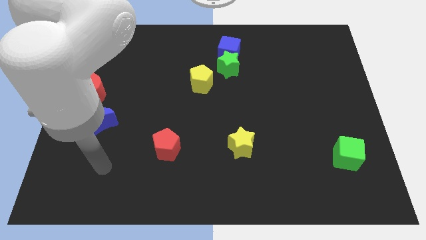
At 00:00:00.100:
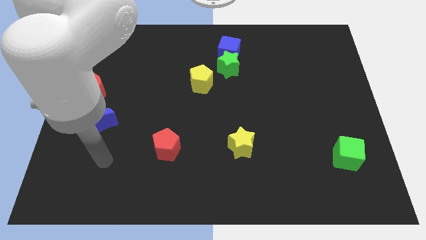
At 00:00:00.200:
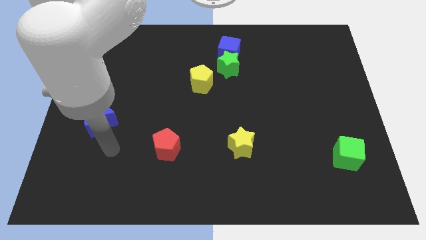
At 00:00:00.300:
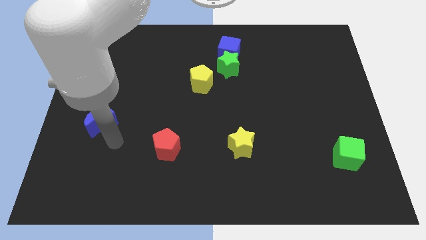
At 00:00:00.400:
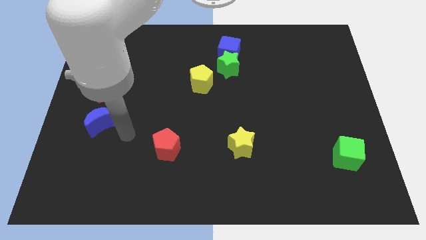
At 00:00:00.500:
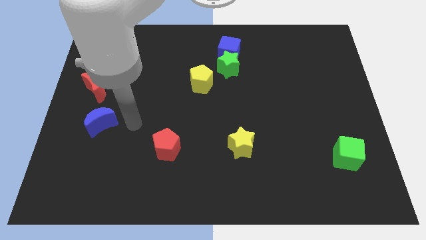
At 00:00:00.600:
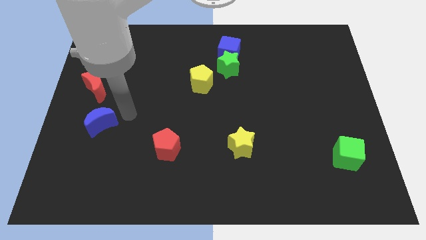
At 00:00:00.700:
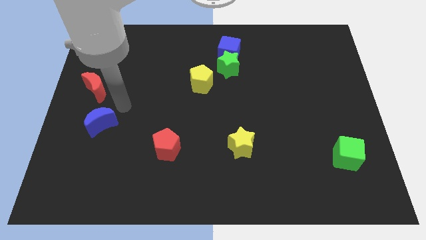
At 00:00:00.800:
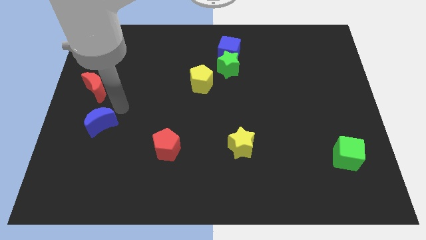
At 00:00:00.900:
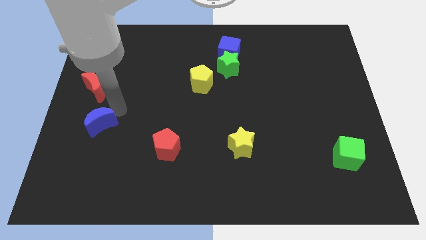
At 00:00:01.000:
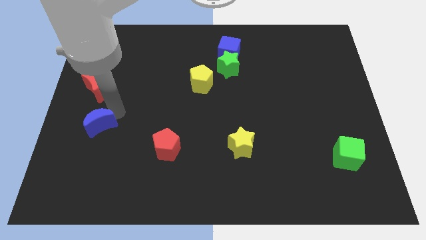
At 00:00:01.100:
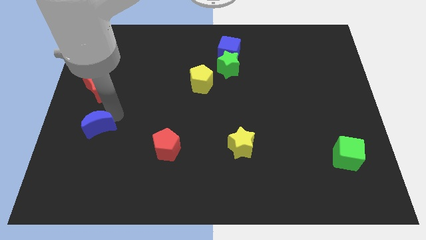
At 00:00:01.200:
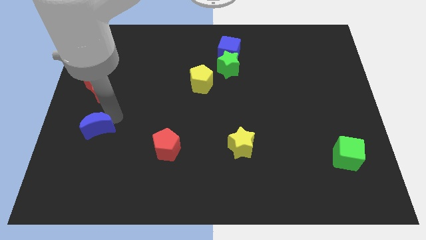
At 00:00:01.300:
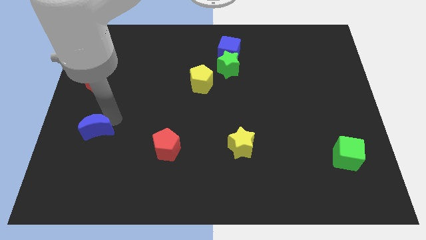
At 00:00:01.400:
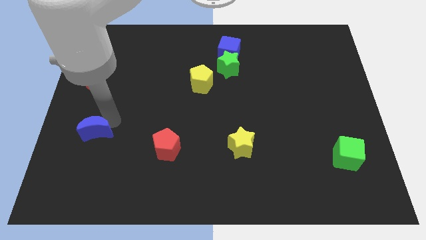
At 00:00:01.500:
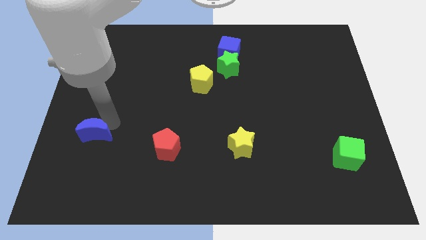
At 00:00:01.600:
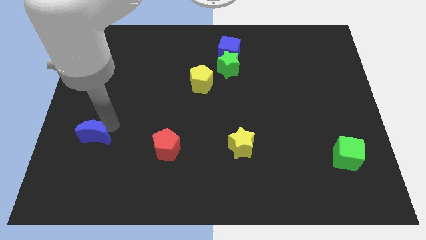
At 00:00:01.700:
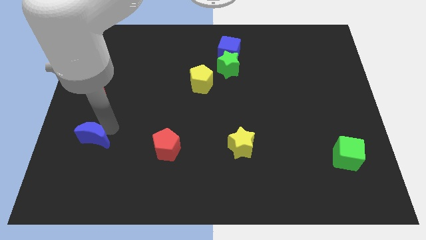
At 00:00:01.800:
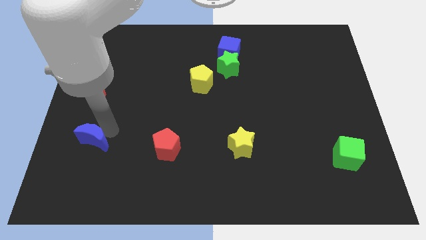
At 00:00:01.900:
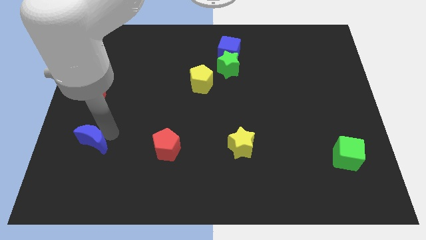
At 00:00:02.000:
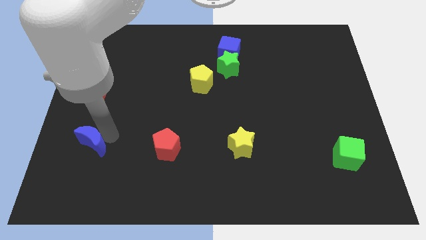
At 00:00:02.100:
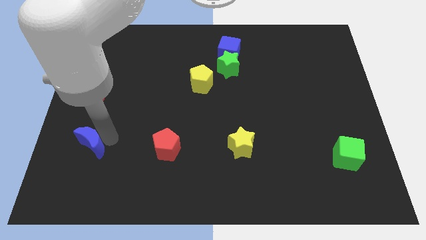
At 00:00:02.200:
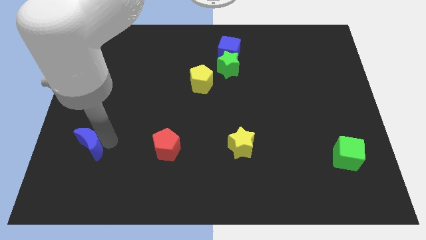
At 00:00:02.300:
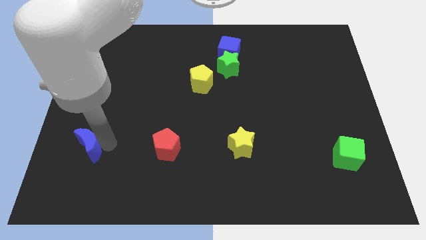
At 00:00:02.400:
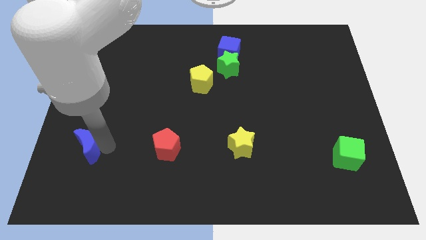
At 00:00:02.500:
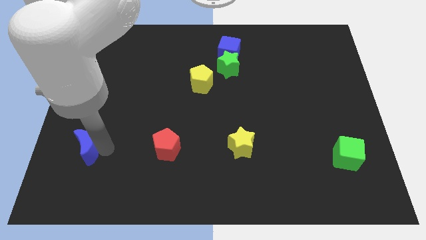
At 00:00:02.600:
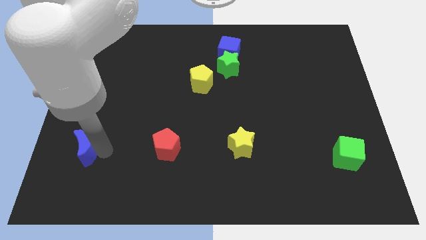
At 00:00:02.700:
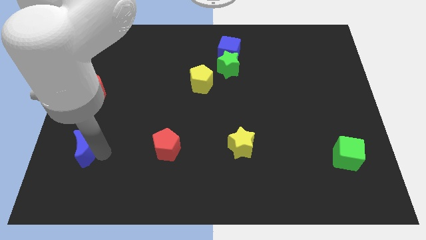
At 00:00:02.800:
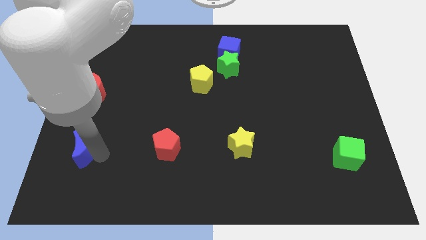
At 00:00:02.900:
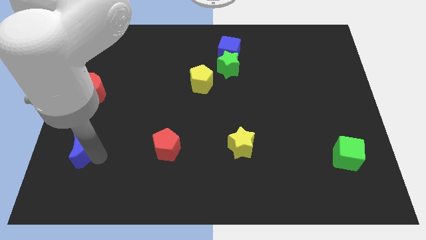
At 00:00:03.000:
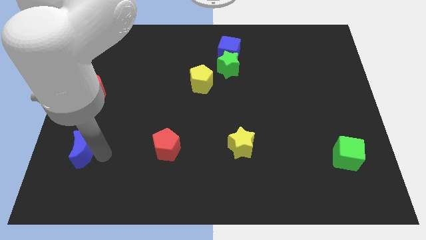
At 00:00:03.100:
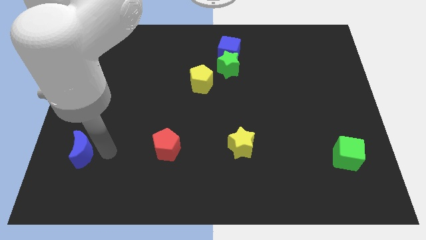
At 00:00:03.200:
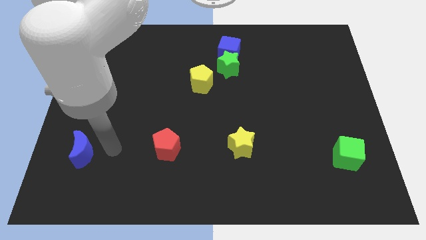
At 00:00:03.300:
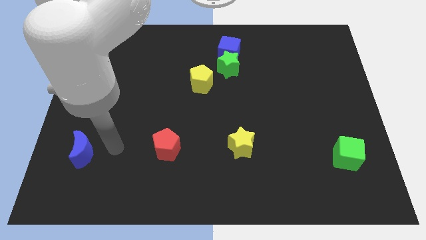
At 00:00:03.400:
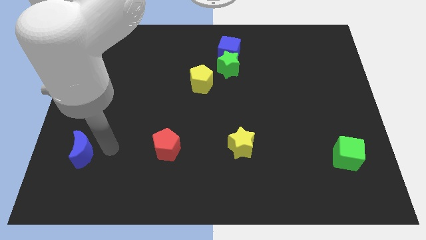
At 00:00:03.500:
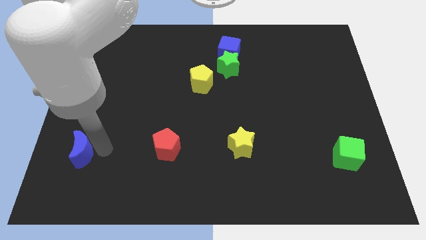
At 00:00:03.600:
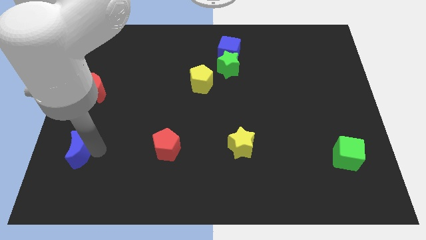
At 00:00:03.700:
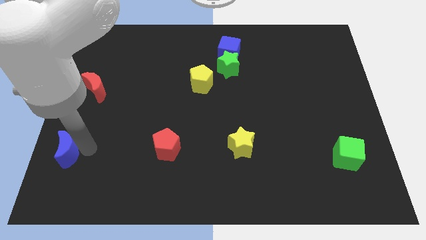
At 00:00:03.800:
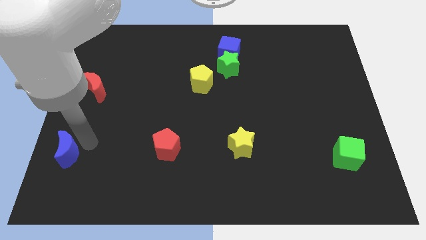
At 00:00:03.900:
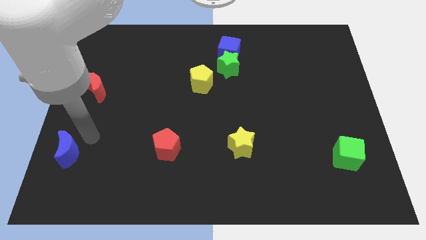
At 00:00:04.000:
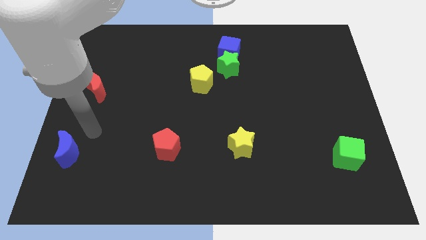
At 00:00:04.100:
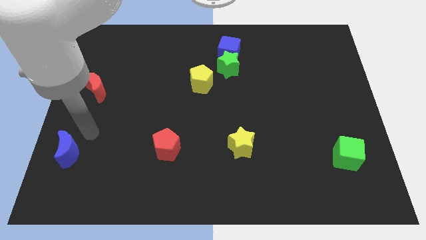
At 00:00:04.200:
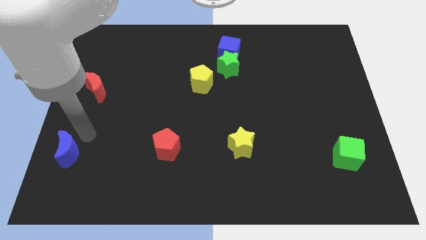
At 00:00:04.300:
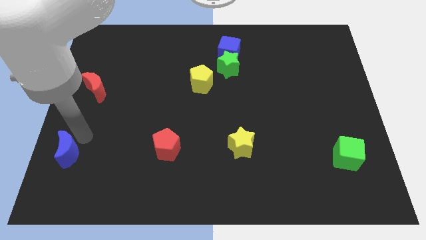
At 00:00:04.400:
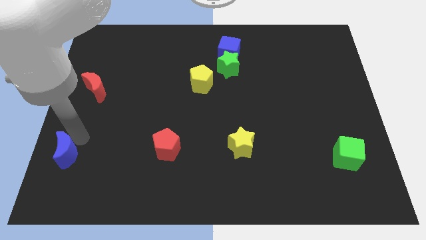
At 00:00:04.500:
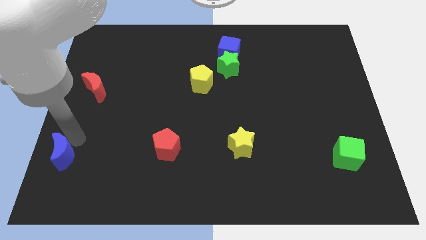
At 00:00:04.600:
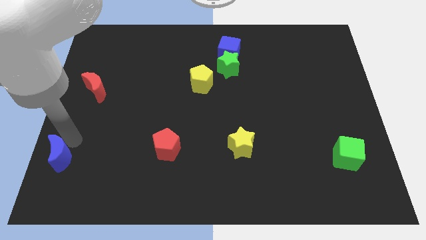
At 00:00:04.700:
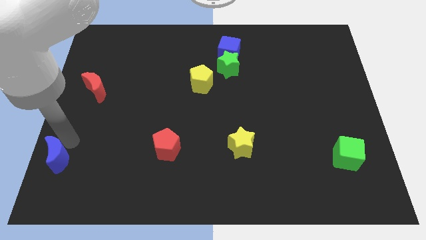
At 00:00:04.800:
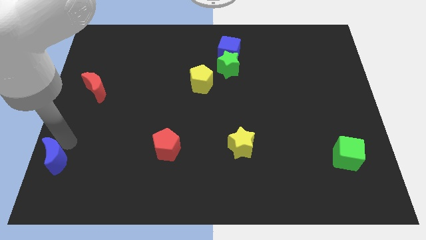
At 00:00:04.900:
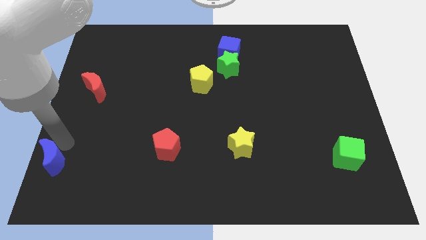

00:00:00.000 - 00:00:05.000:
slide the blue moon to the bottom left of the board

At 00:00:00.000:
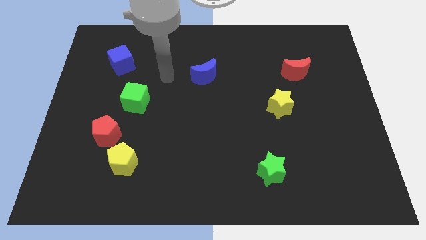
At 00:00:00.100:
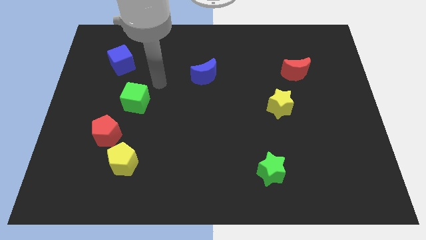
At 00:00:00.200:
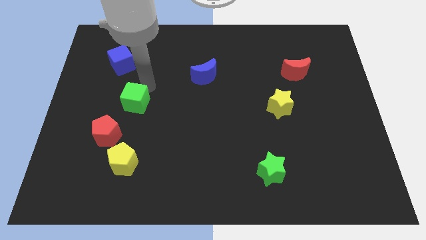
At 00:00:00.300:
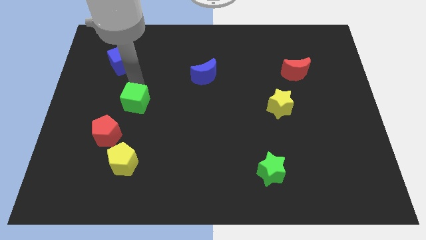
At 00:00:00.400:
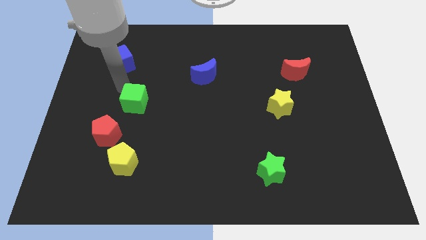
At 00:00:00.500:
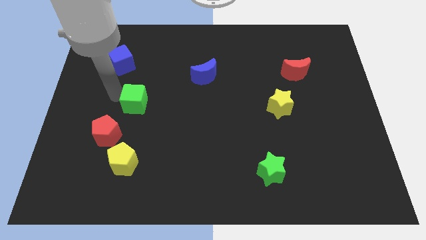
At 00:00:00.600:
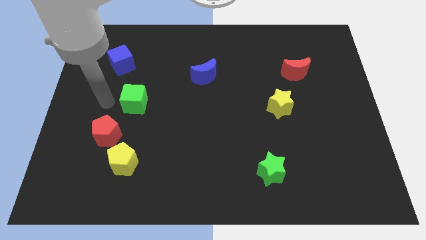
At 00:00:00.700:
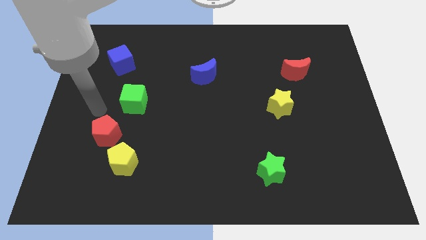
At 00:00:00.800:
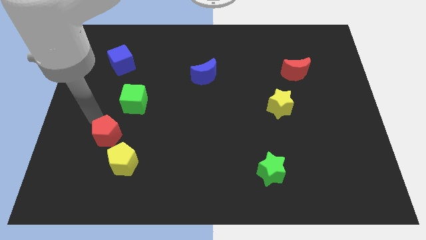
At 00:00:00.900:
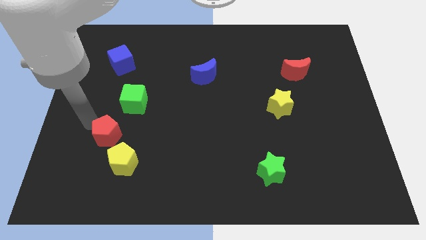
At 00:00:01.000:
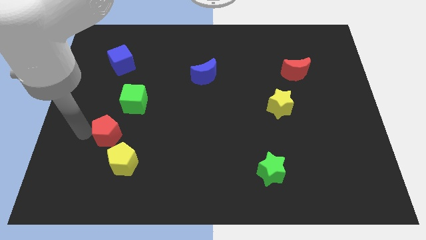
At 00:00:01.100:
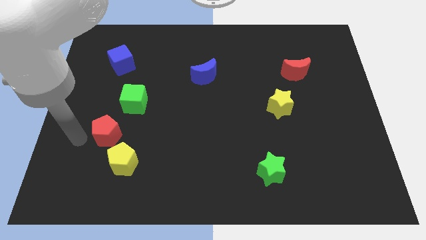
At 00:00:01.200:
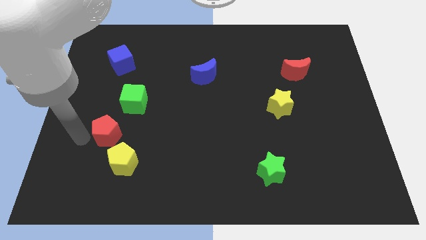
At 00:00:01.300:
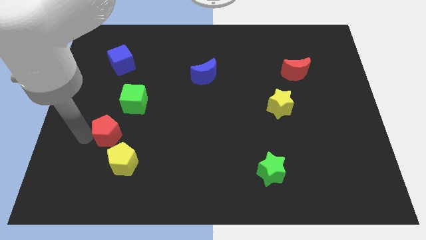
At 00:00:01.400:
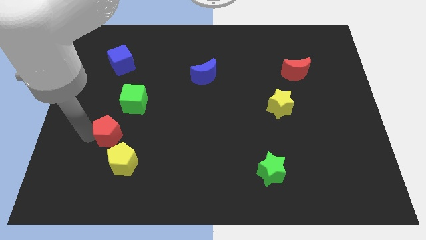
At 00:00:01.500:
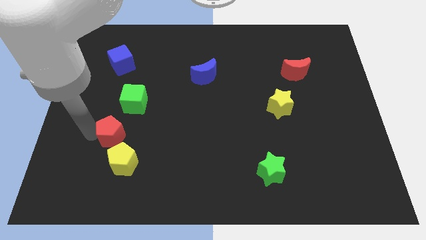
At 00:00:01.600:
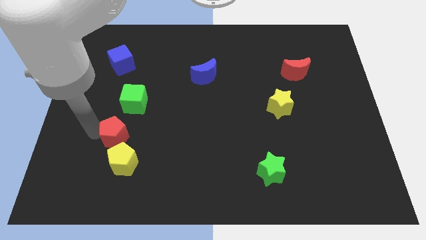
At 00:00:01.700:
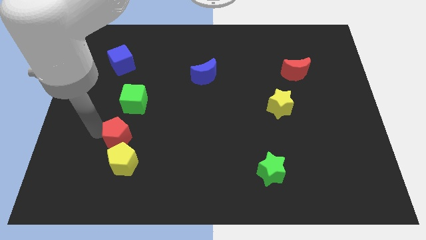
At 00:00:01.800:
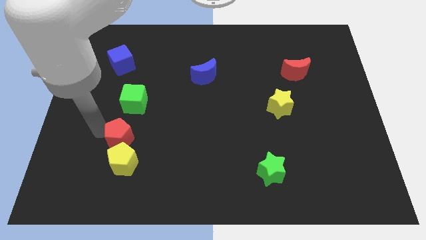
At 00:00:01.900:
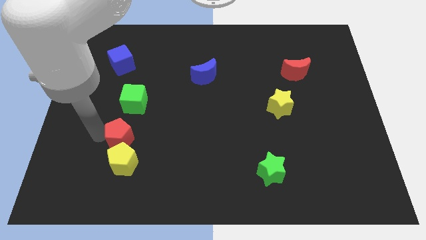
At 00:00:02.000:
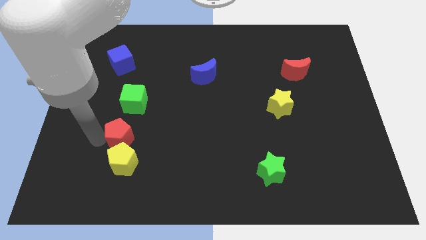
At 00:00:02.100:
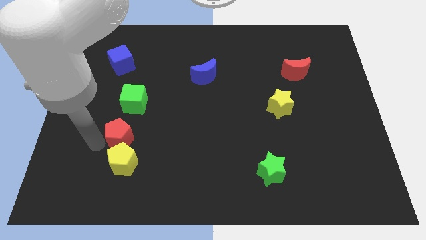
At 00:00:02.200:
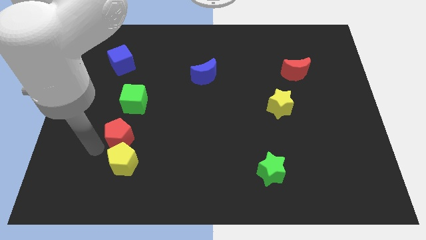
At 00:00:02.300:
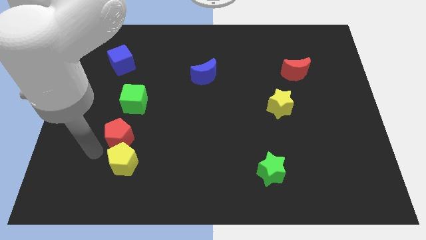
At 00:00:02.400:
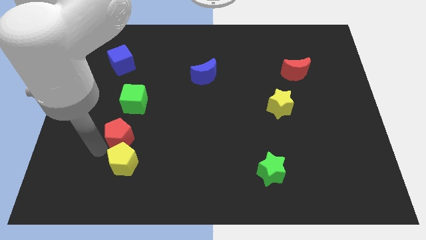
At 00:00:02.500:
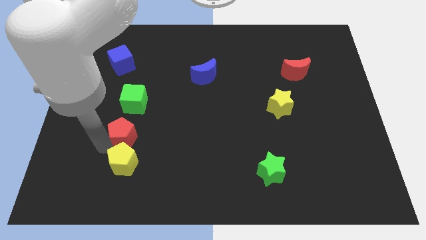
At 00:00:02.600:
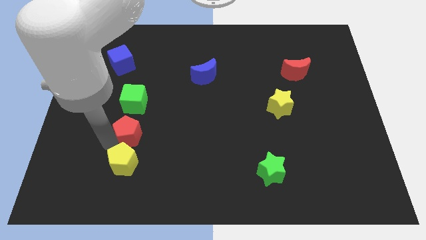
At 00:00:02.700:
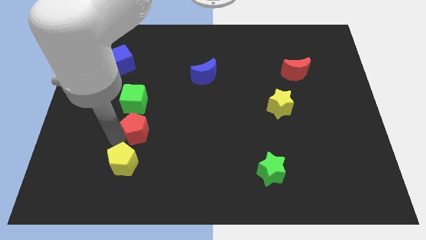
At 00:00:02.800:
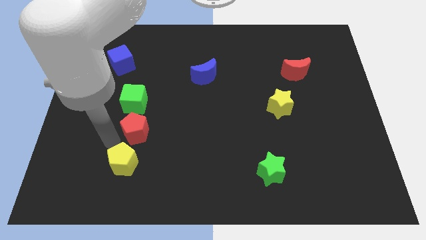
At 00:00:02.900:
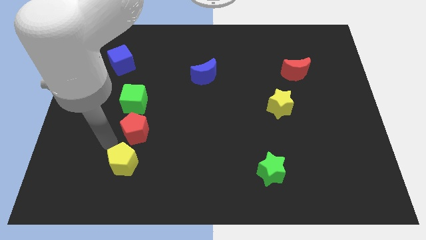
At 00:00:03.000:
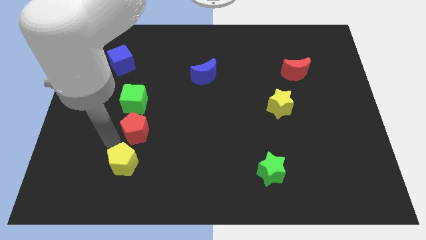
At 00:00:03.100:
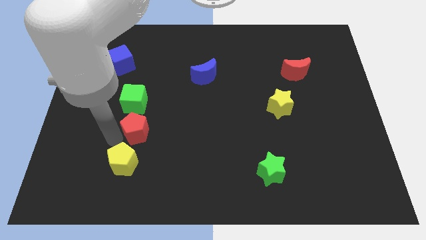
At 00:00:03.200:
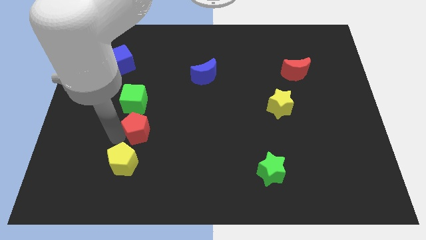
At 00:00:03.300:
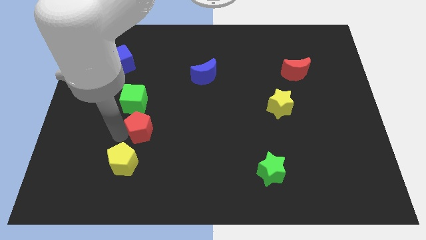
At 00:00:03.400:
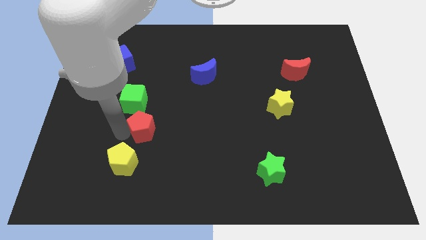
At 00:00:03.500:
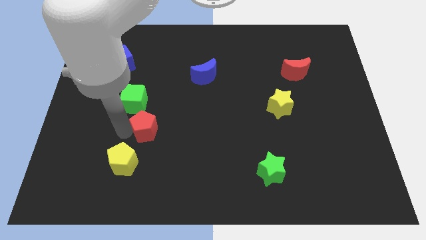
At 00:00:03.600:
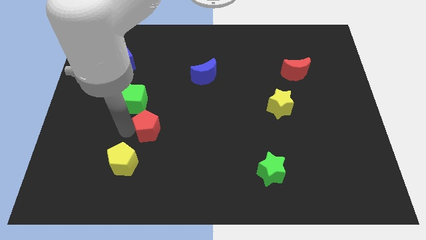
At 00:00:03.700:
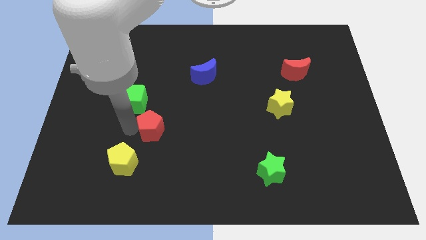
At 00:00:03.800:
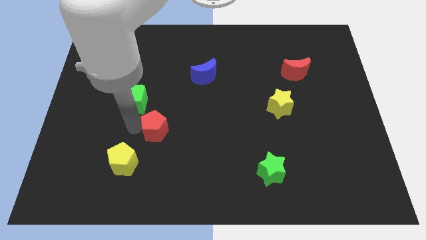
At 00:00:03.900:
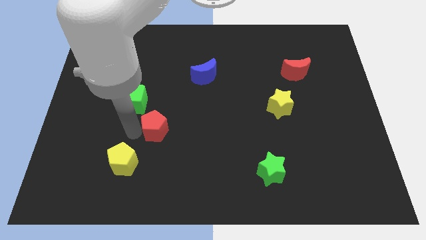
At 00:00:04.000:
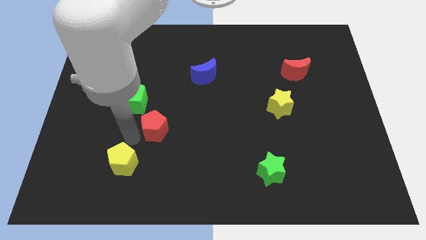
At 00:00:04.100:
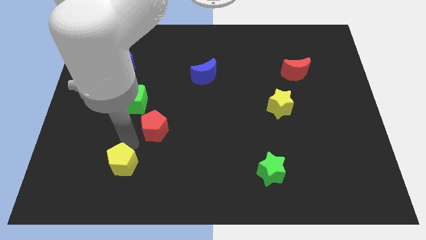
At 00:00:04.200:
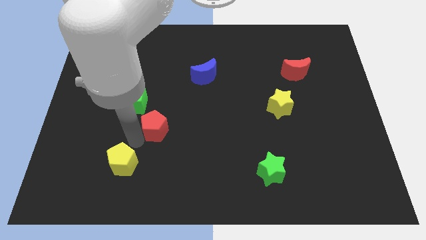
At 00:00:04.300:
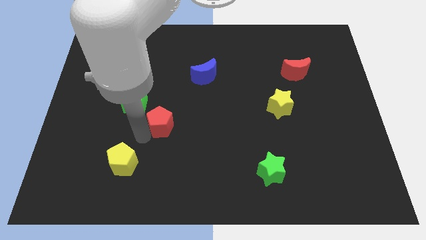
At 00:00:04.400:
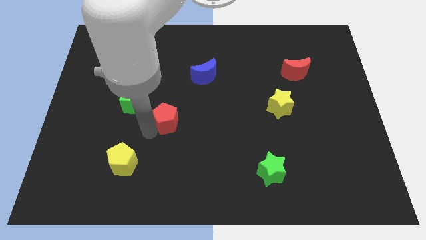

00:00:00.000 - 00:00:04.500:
slide the red pentagon to the middle of the board
